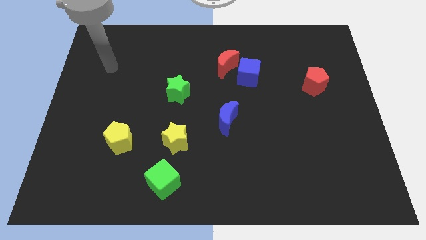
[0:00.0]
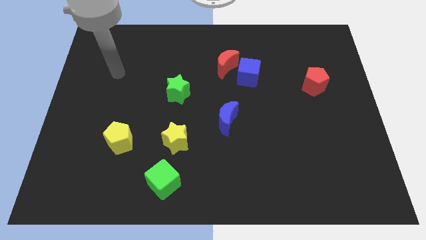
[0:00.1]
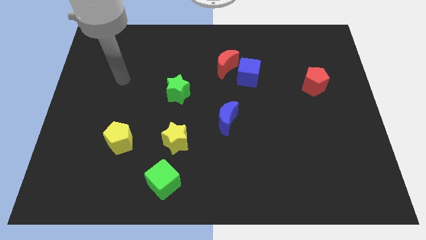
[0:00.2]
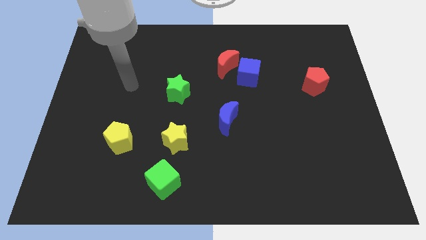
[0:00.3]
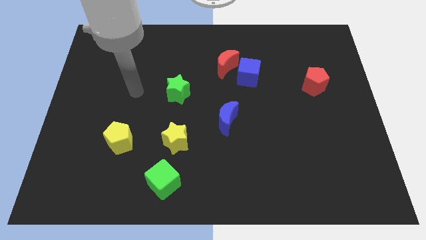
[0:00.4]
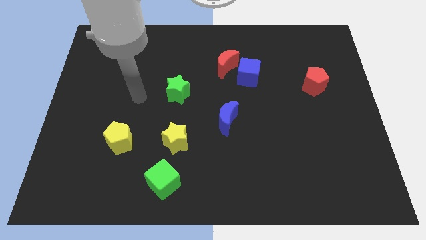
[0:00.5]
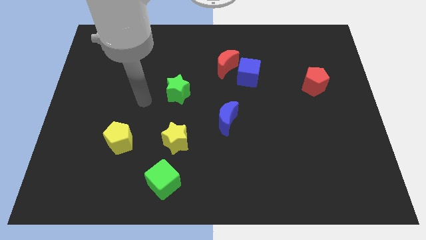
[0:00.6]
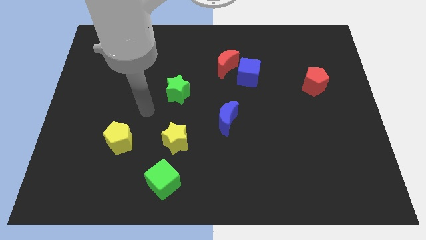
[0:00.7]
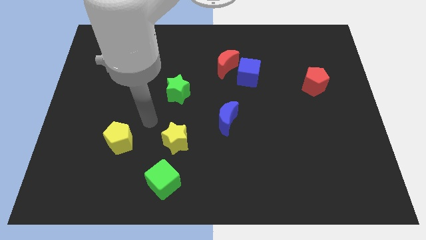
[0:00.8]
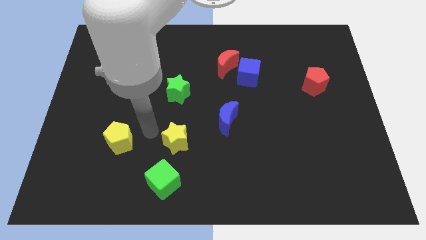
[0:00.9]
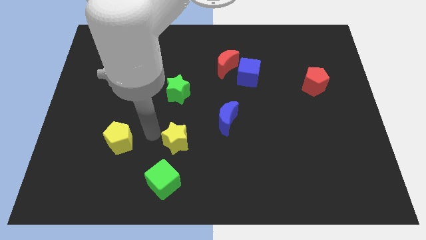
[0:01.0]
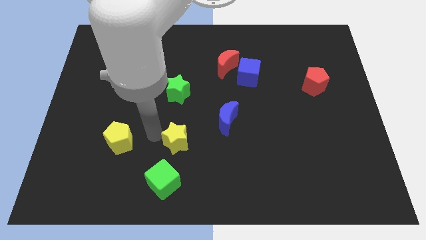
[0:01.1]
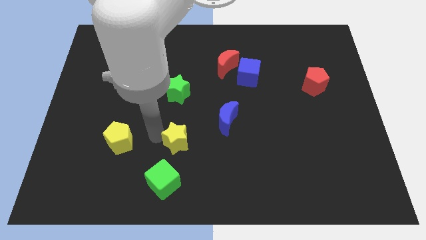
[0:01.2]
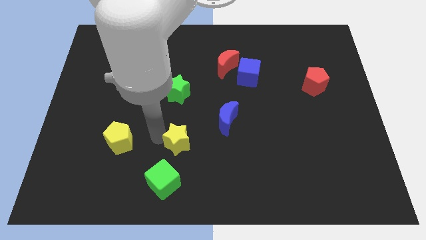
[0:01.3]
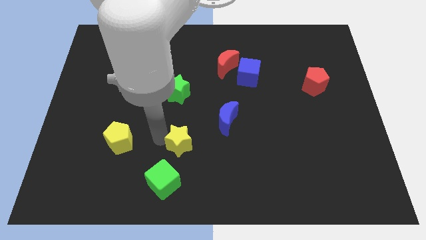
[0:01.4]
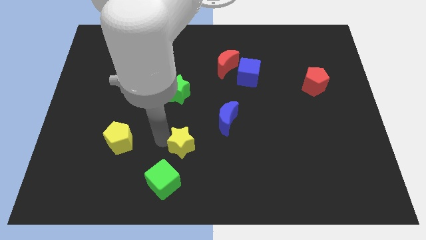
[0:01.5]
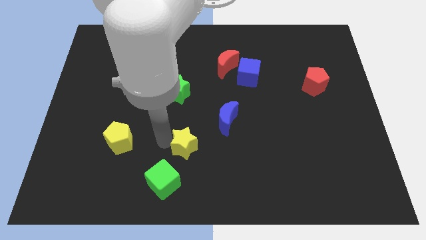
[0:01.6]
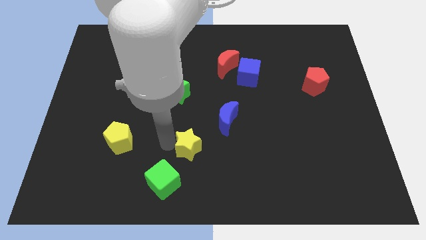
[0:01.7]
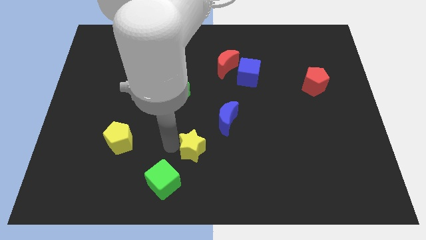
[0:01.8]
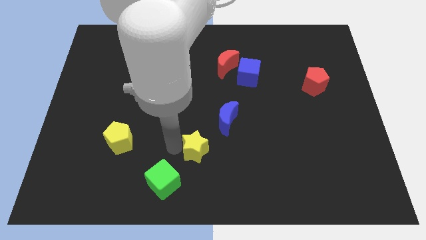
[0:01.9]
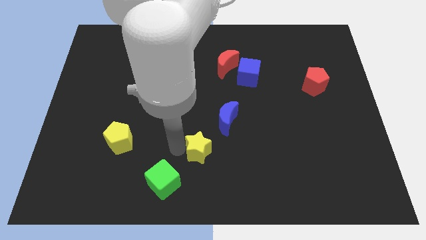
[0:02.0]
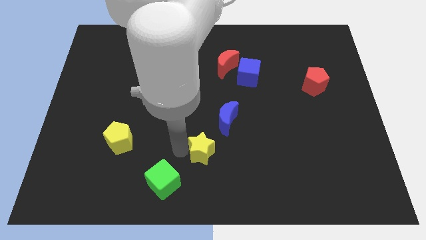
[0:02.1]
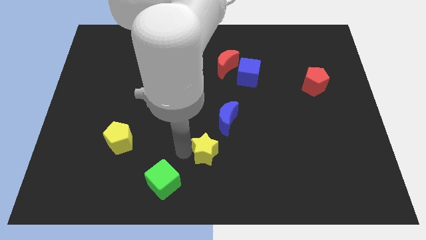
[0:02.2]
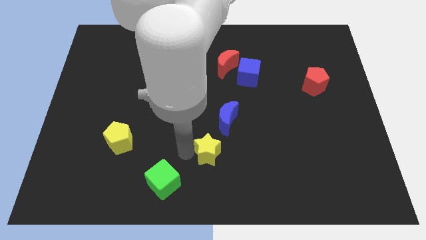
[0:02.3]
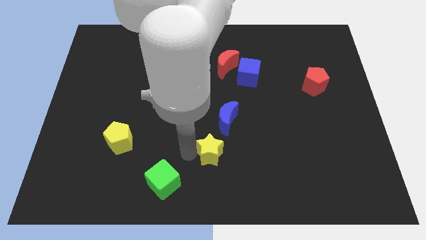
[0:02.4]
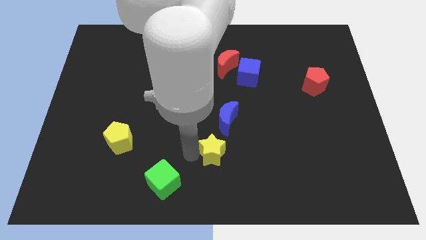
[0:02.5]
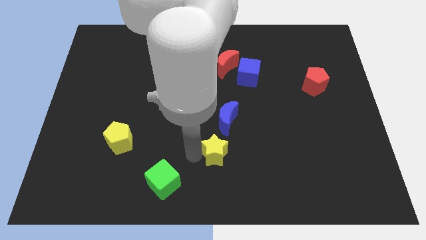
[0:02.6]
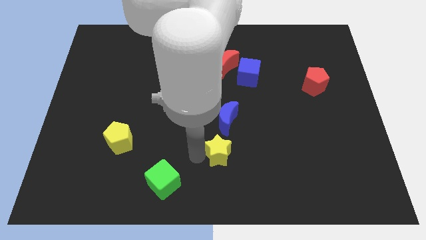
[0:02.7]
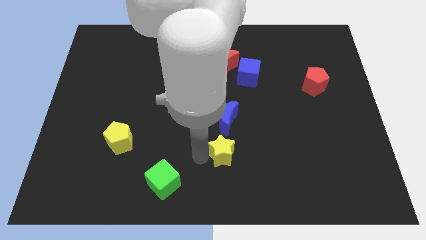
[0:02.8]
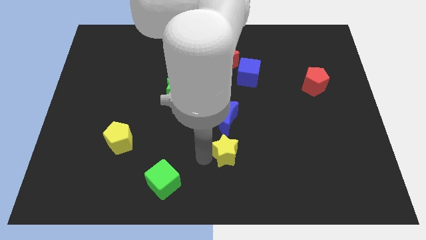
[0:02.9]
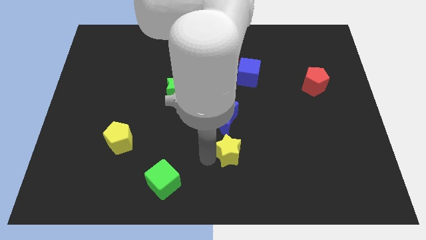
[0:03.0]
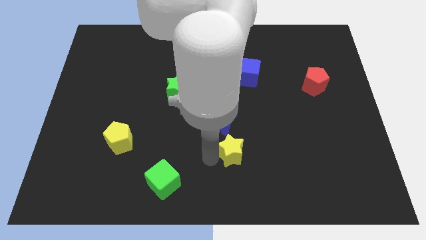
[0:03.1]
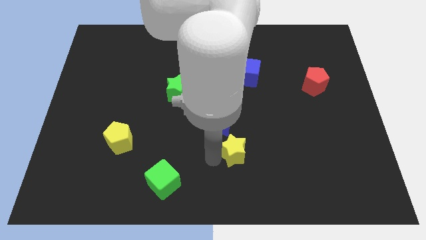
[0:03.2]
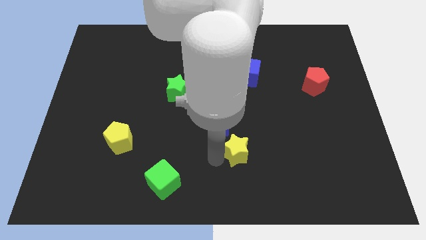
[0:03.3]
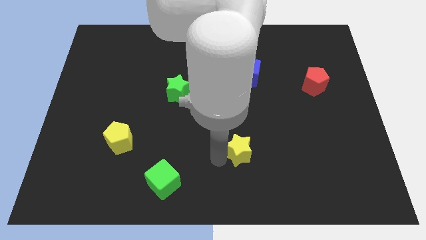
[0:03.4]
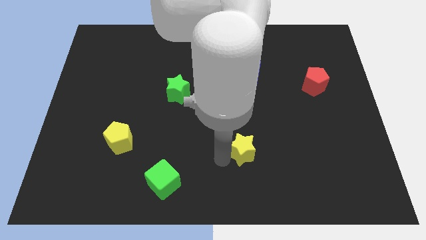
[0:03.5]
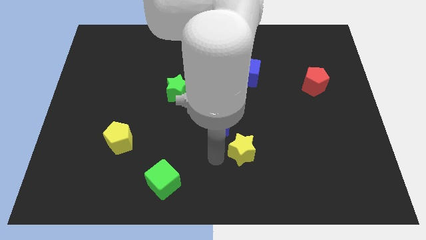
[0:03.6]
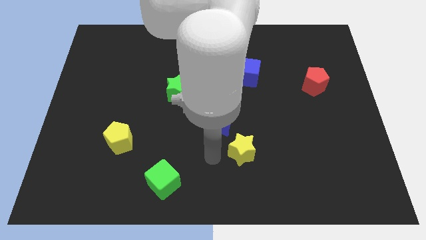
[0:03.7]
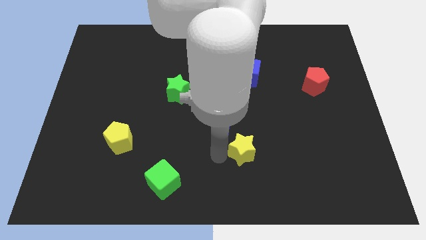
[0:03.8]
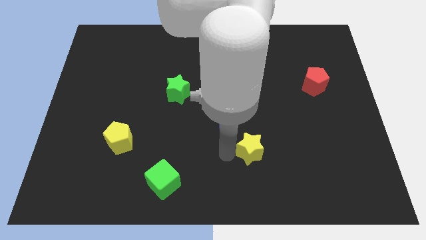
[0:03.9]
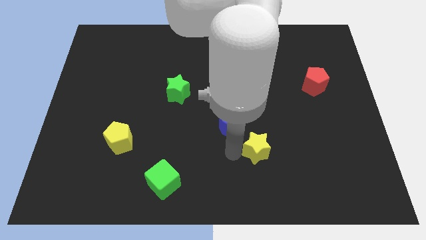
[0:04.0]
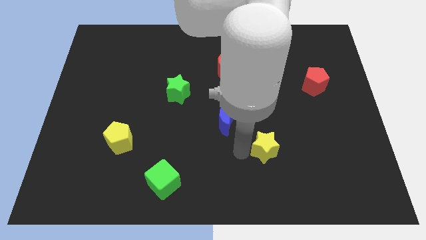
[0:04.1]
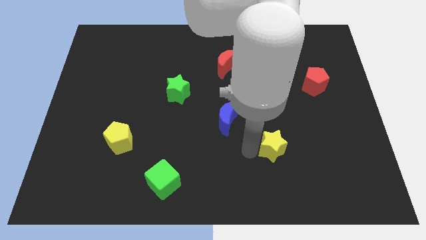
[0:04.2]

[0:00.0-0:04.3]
push the yellow star to the right

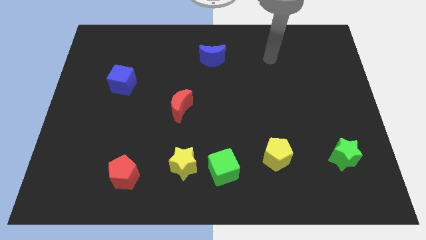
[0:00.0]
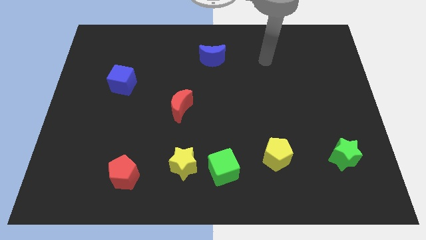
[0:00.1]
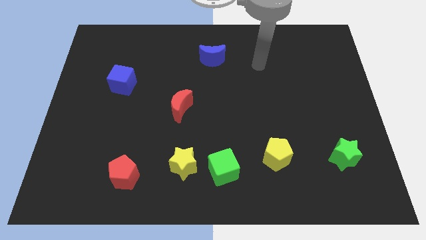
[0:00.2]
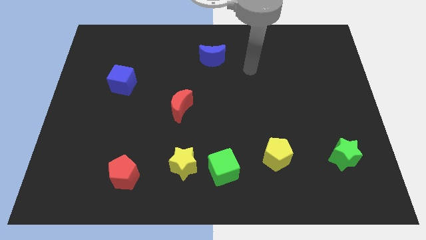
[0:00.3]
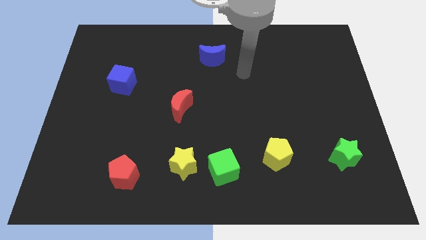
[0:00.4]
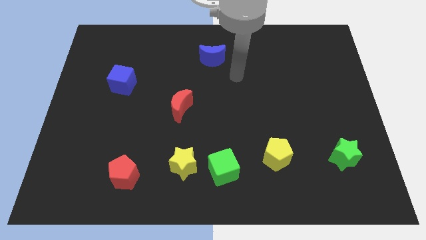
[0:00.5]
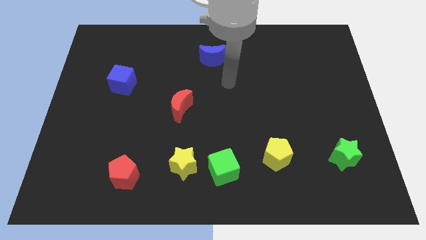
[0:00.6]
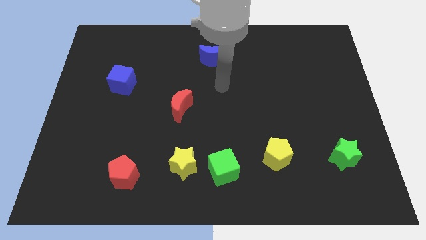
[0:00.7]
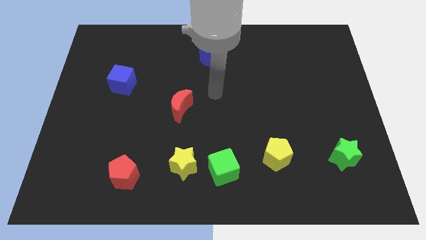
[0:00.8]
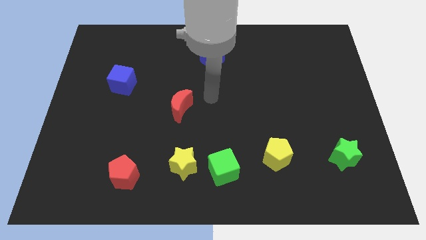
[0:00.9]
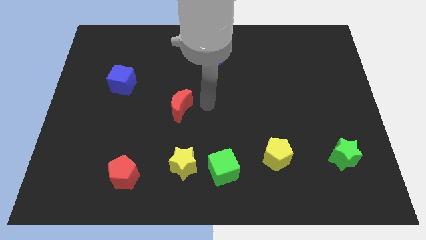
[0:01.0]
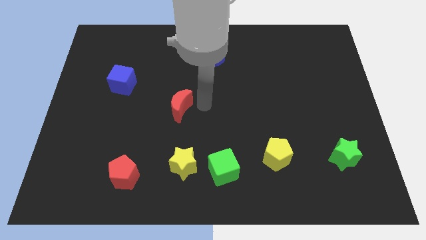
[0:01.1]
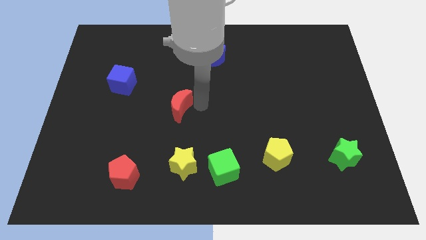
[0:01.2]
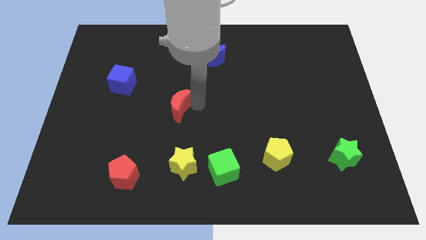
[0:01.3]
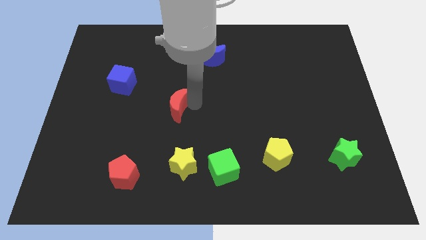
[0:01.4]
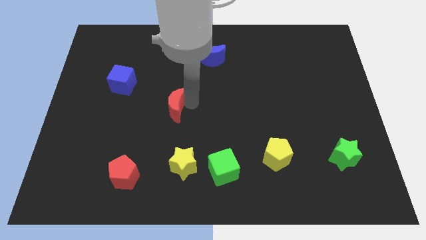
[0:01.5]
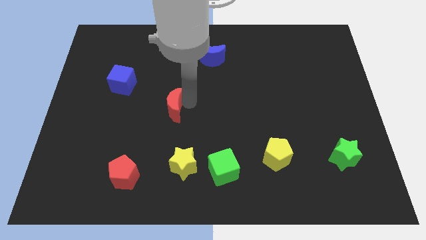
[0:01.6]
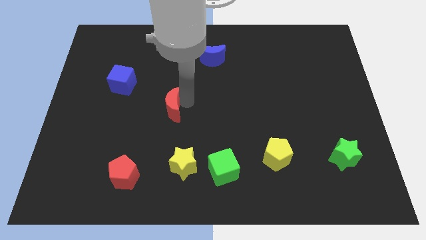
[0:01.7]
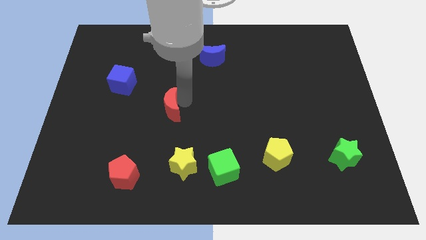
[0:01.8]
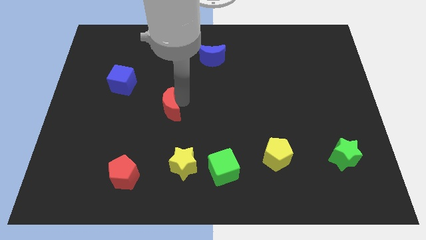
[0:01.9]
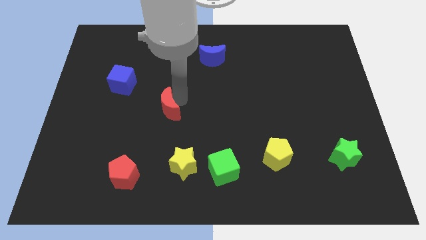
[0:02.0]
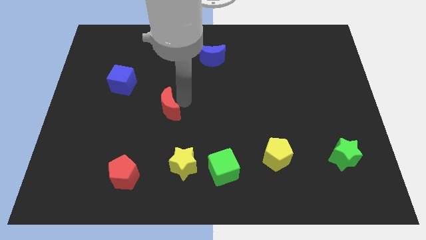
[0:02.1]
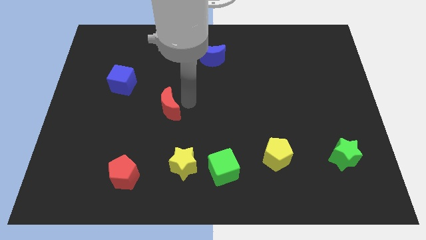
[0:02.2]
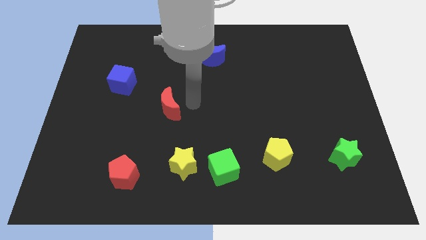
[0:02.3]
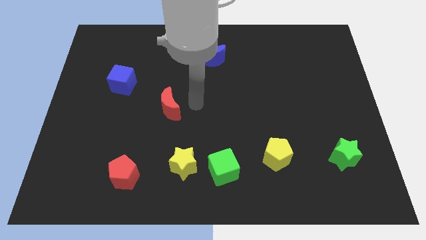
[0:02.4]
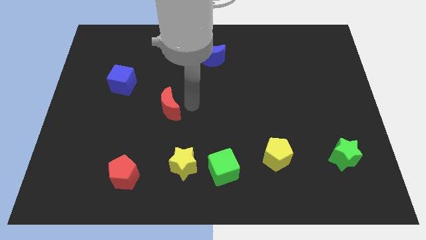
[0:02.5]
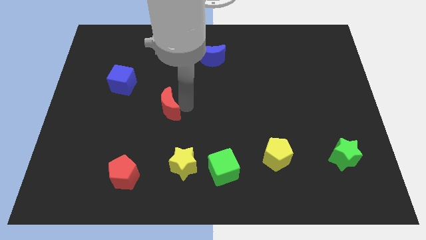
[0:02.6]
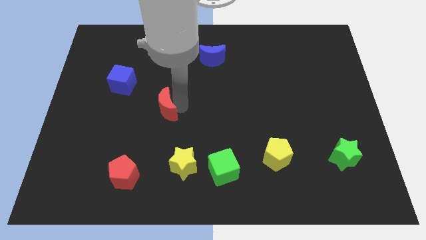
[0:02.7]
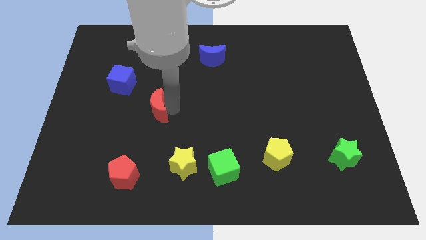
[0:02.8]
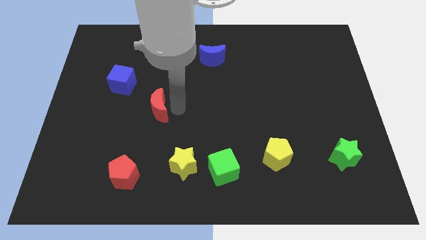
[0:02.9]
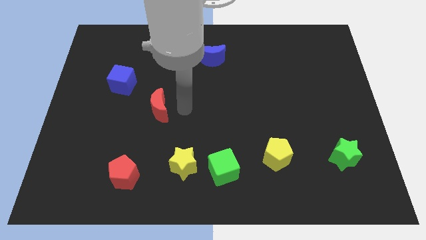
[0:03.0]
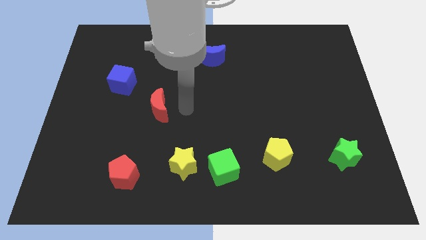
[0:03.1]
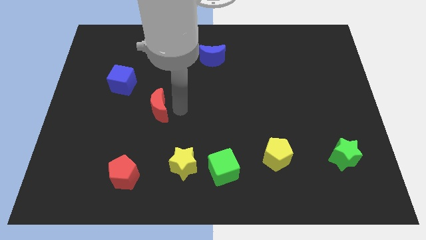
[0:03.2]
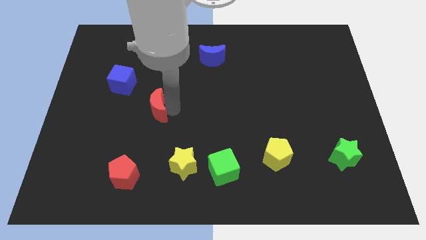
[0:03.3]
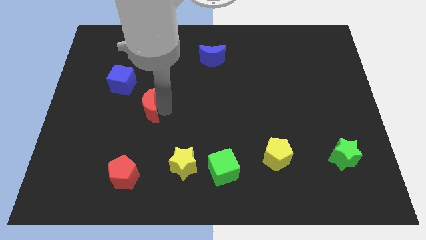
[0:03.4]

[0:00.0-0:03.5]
slide the red moon a bit left
